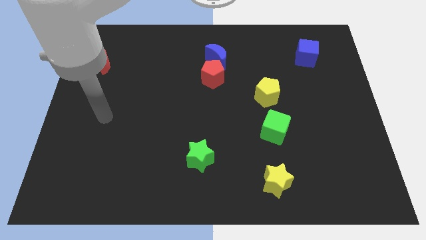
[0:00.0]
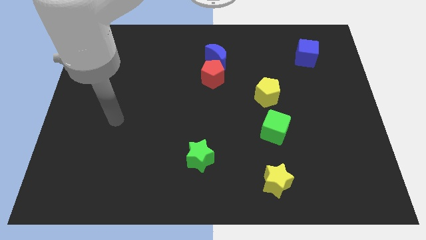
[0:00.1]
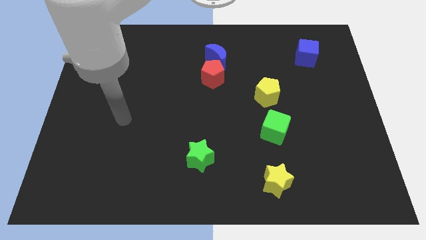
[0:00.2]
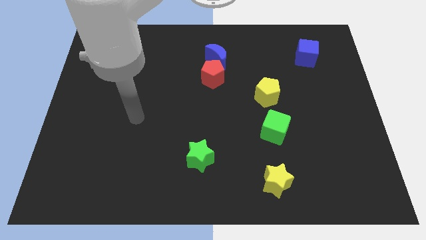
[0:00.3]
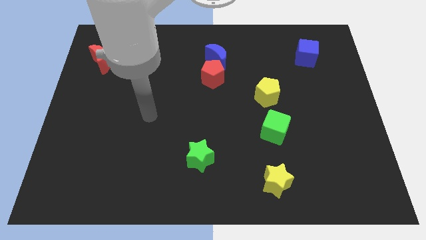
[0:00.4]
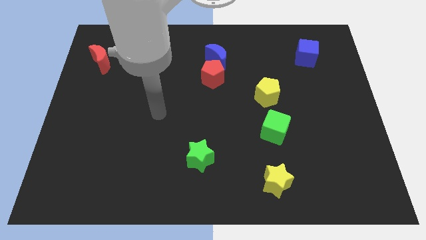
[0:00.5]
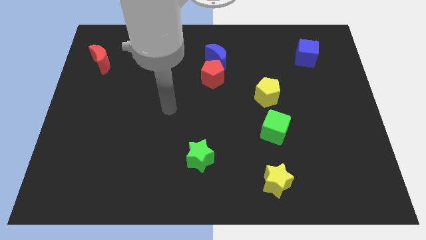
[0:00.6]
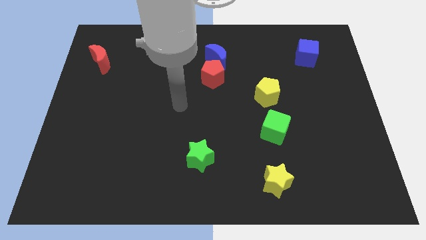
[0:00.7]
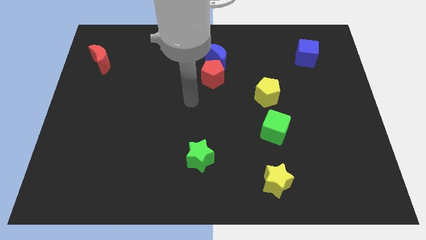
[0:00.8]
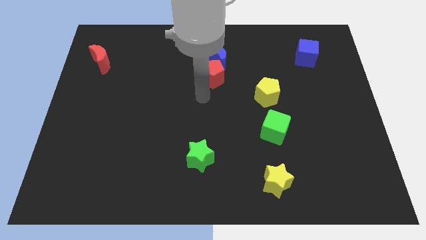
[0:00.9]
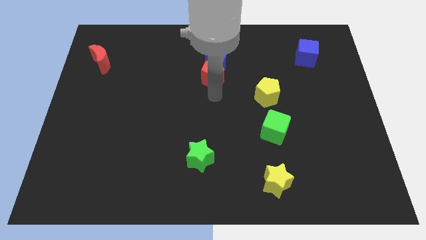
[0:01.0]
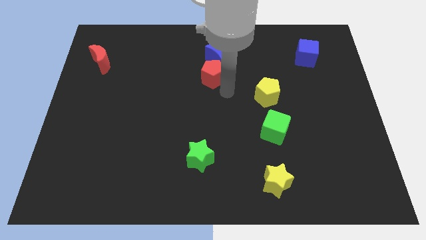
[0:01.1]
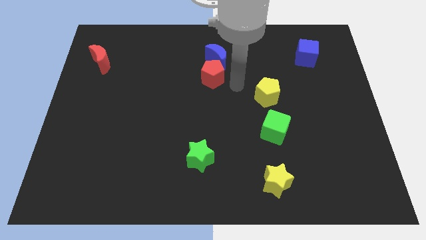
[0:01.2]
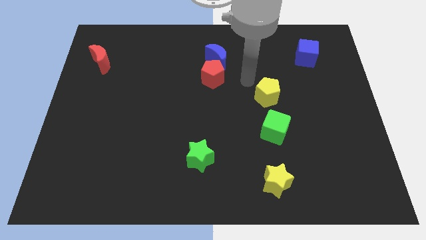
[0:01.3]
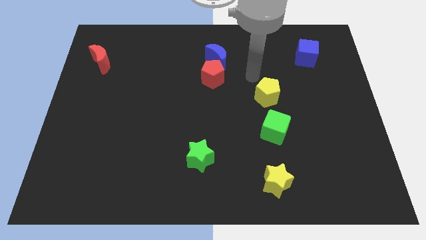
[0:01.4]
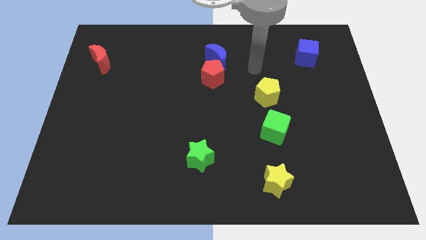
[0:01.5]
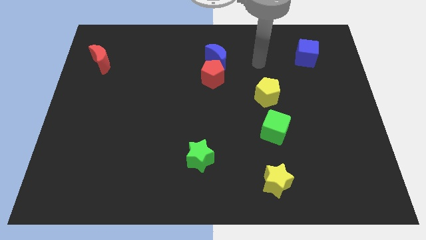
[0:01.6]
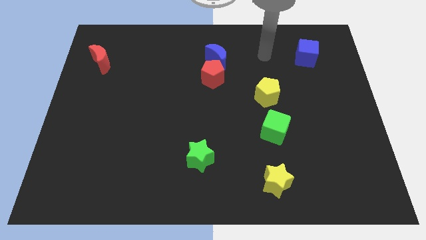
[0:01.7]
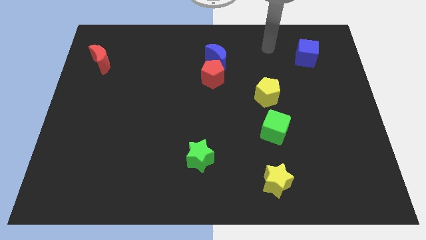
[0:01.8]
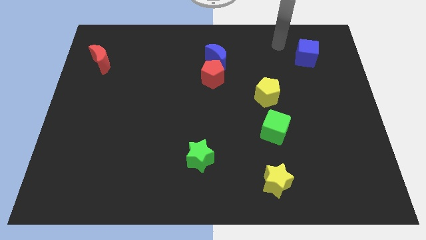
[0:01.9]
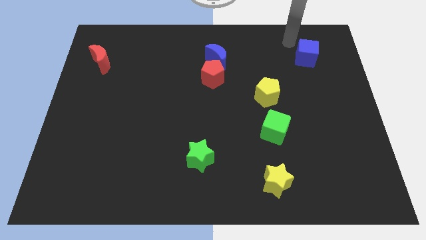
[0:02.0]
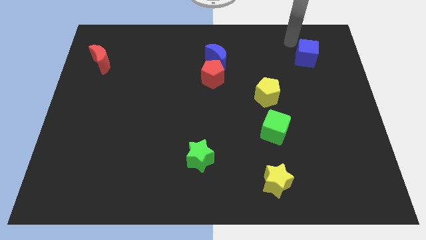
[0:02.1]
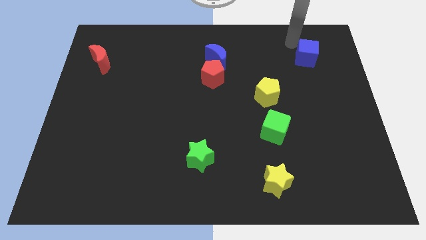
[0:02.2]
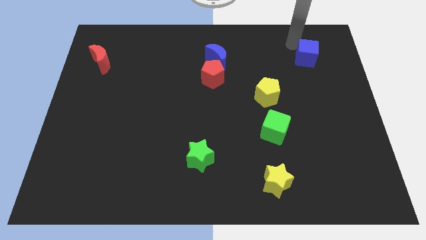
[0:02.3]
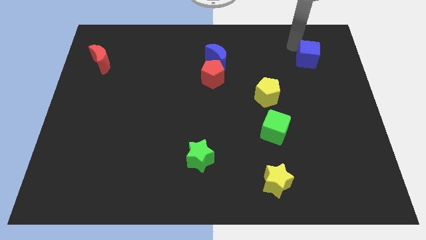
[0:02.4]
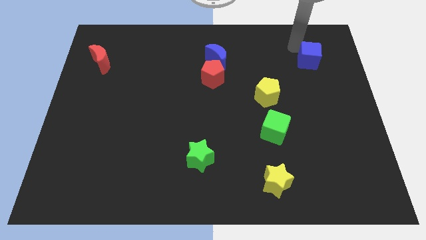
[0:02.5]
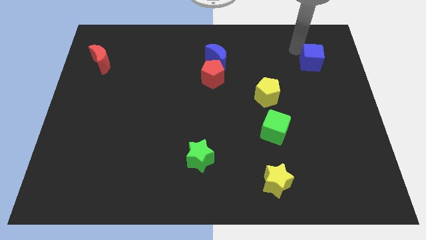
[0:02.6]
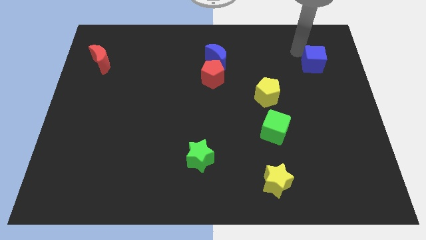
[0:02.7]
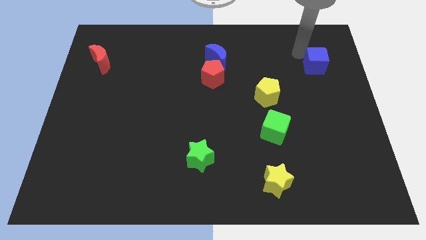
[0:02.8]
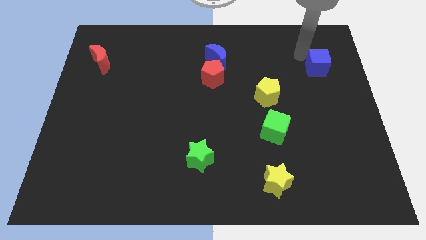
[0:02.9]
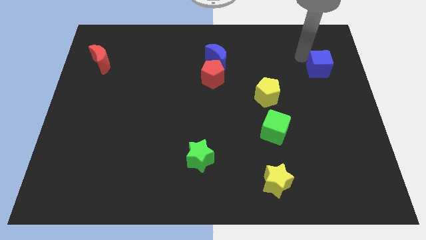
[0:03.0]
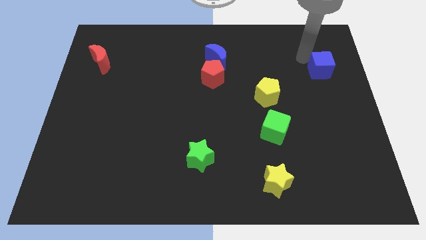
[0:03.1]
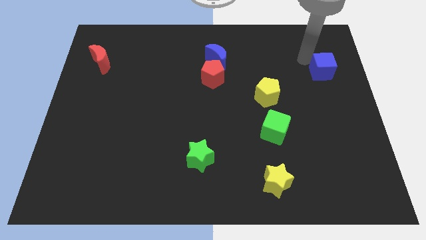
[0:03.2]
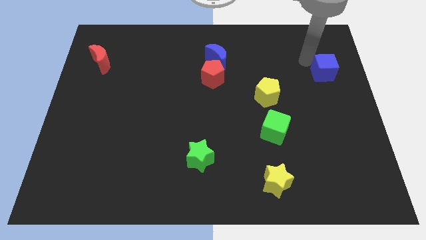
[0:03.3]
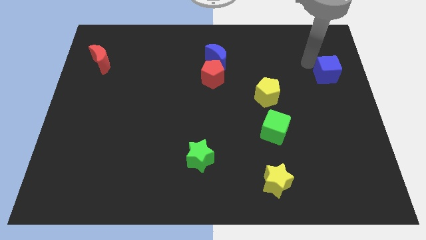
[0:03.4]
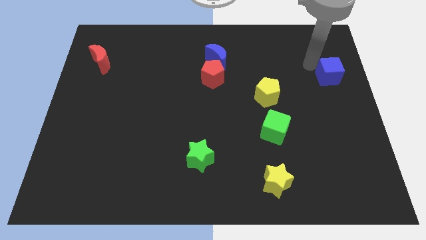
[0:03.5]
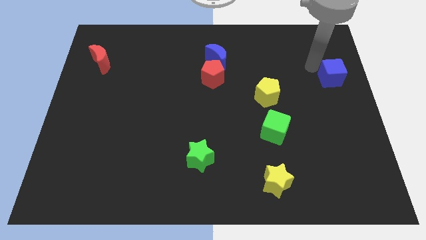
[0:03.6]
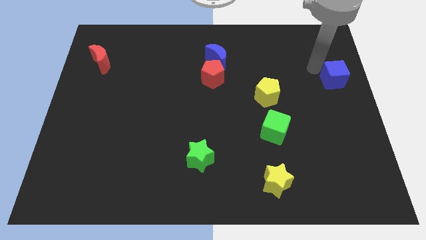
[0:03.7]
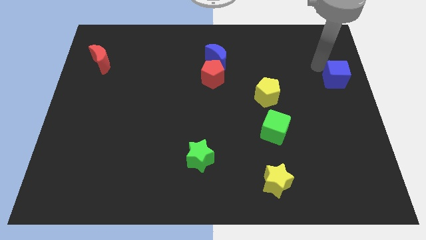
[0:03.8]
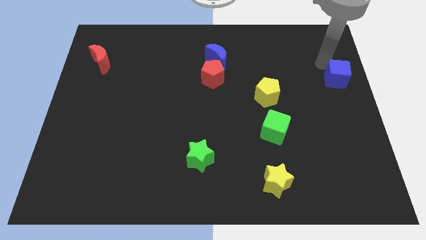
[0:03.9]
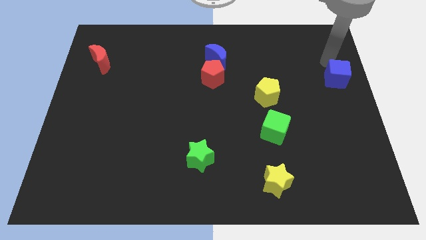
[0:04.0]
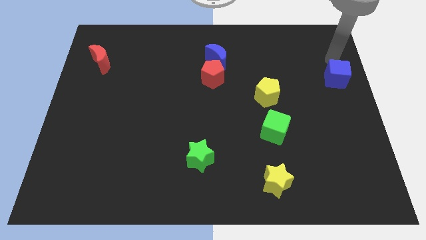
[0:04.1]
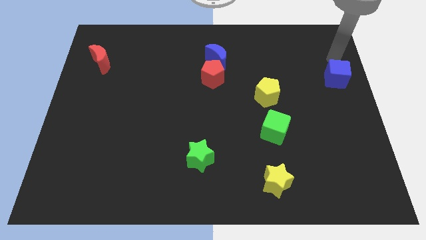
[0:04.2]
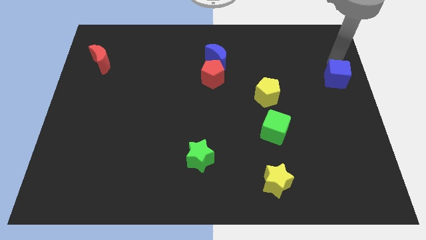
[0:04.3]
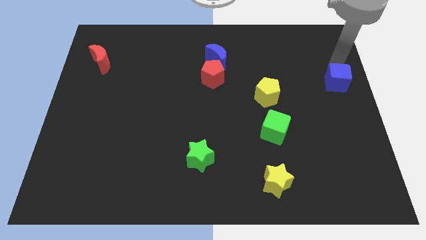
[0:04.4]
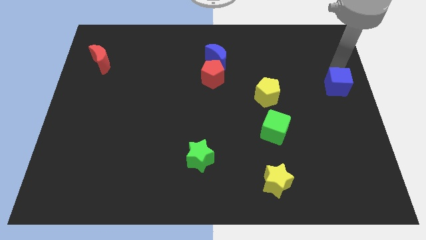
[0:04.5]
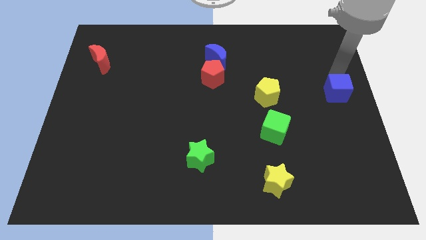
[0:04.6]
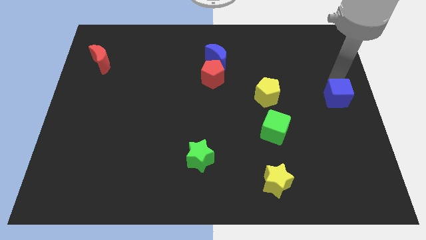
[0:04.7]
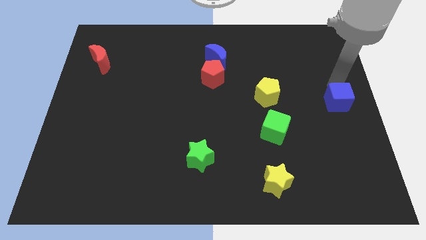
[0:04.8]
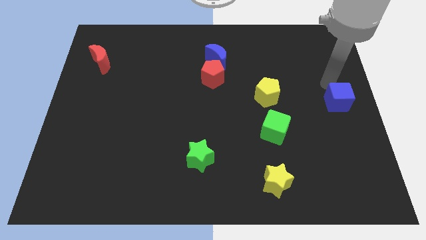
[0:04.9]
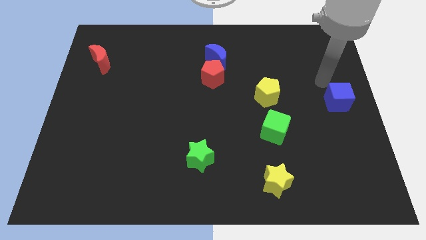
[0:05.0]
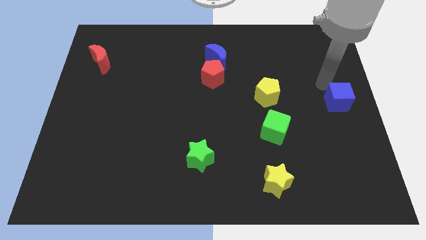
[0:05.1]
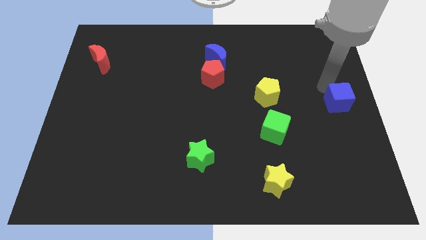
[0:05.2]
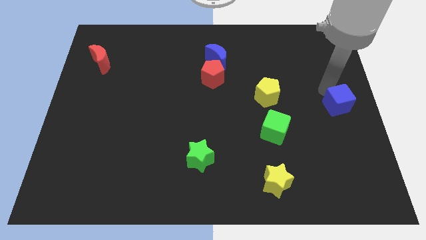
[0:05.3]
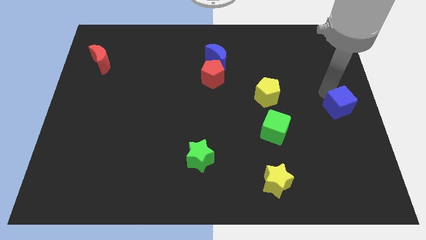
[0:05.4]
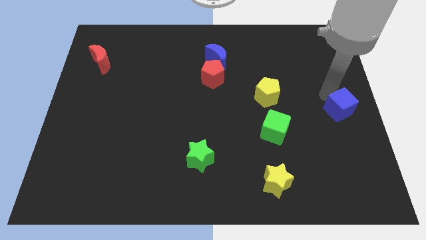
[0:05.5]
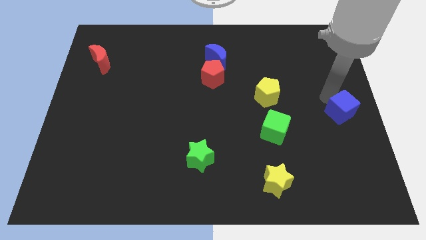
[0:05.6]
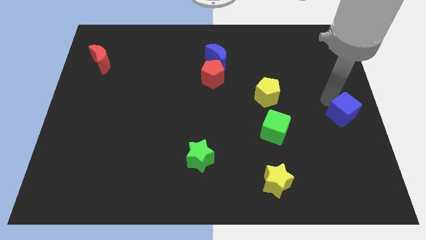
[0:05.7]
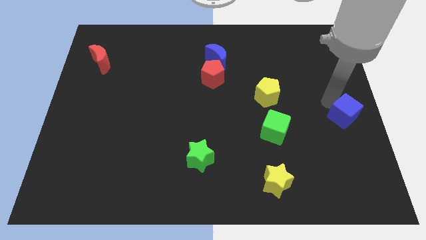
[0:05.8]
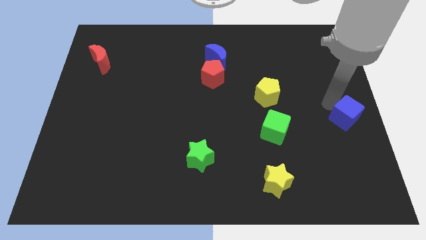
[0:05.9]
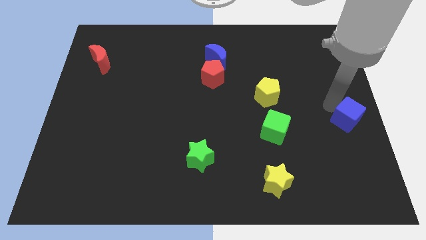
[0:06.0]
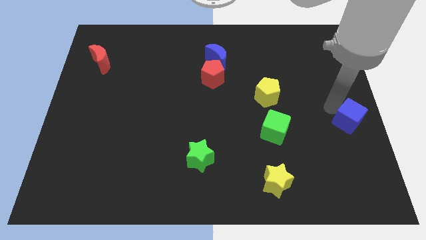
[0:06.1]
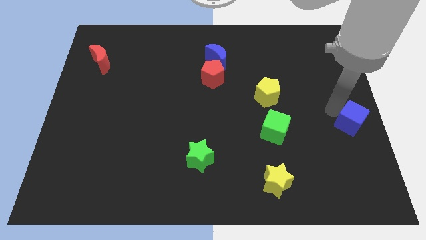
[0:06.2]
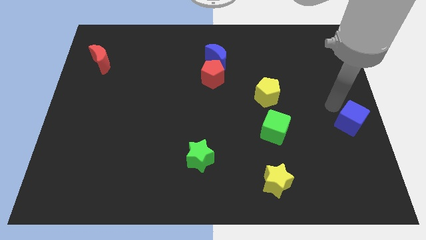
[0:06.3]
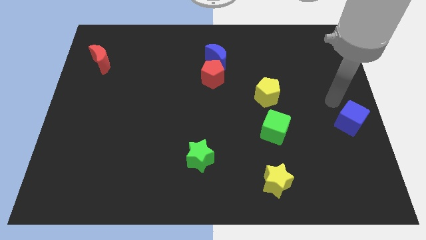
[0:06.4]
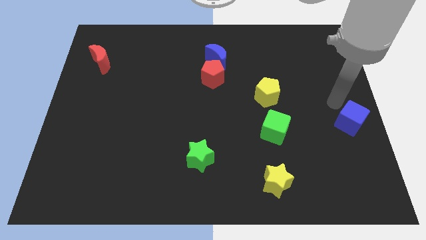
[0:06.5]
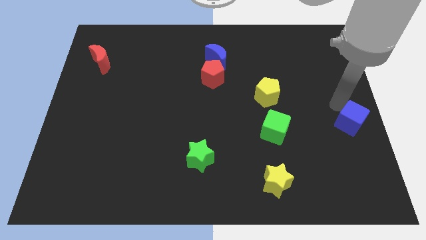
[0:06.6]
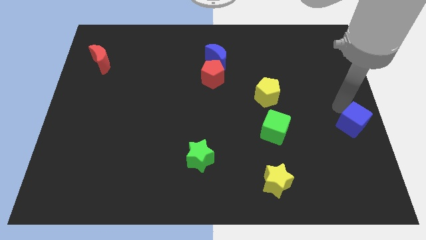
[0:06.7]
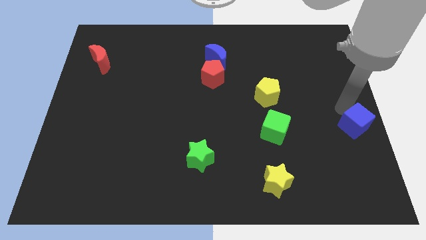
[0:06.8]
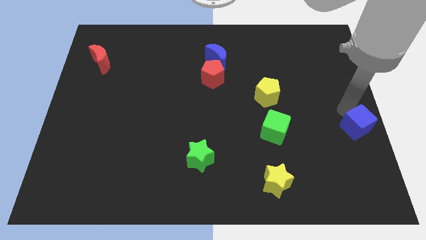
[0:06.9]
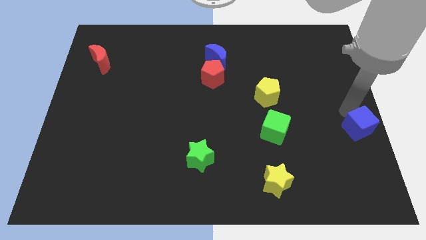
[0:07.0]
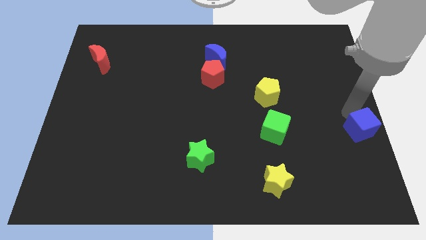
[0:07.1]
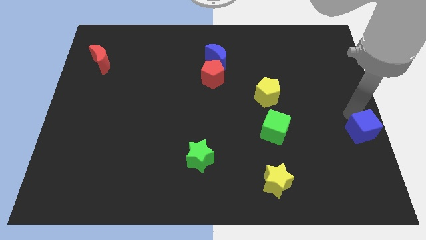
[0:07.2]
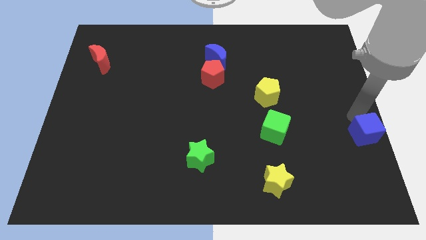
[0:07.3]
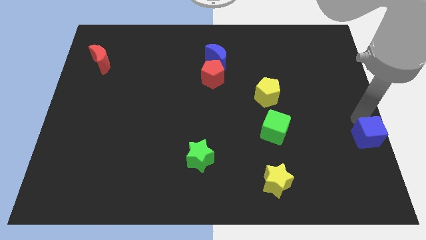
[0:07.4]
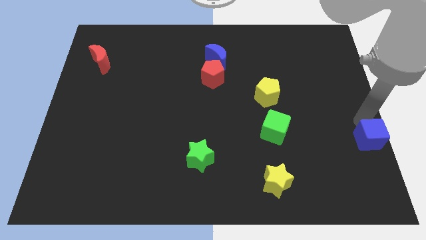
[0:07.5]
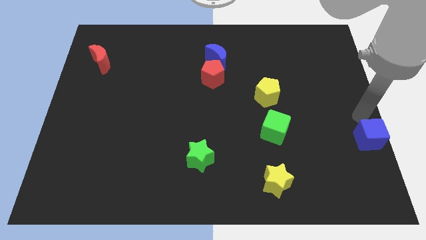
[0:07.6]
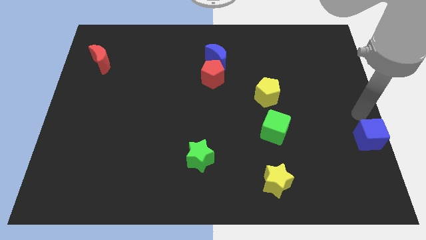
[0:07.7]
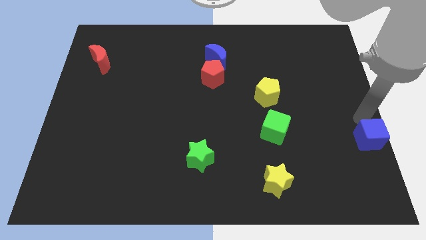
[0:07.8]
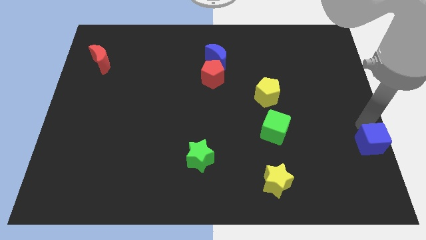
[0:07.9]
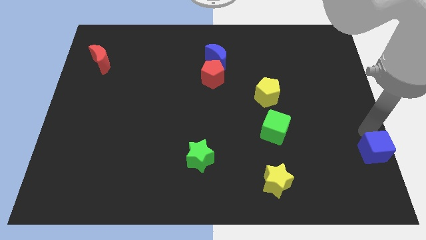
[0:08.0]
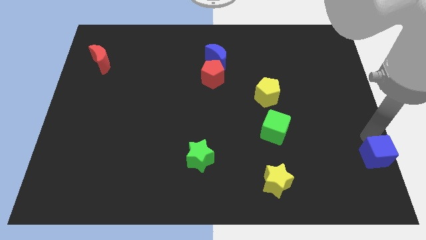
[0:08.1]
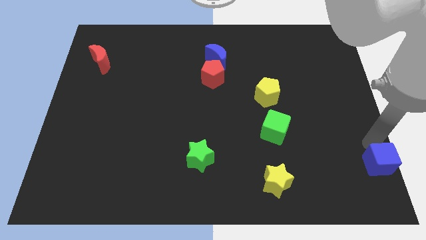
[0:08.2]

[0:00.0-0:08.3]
push the blue cube to the lower right corner
